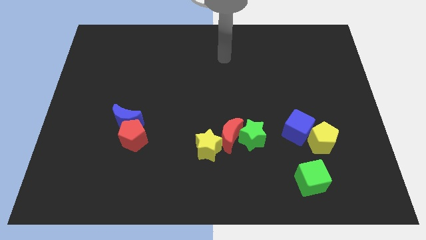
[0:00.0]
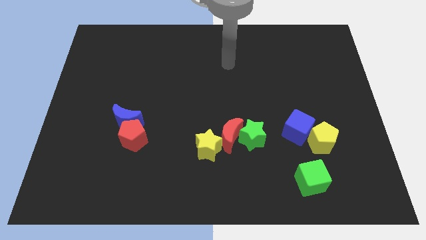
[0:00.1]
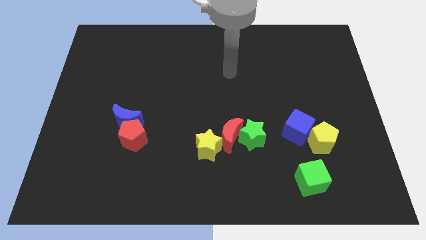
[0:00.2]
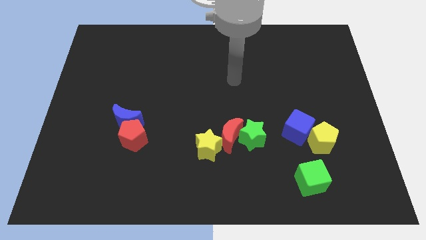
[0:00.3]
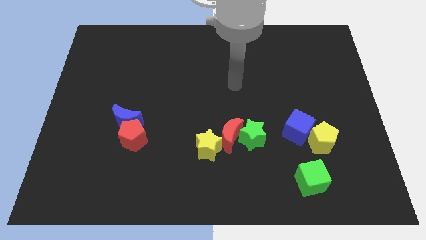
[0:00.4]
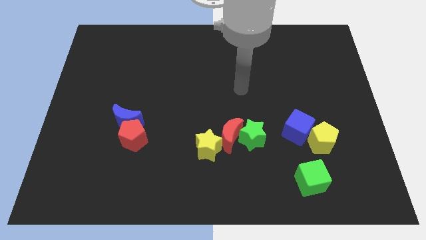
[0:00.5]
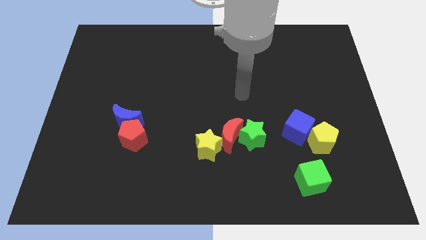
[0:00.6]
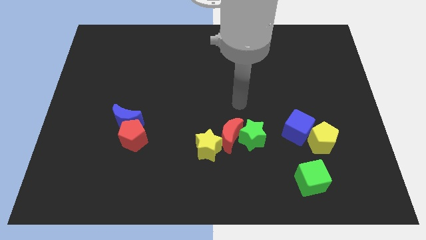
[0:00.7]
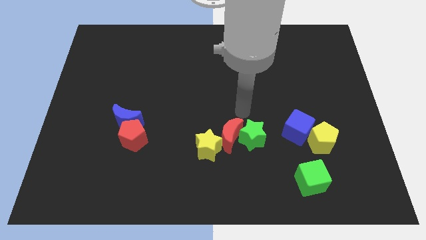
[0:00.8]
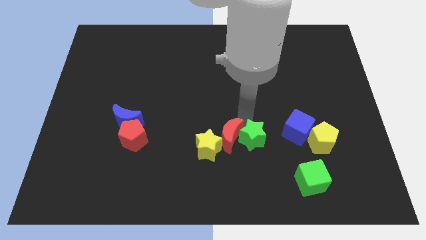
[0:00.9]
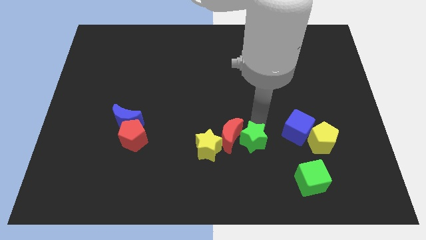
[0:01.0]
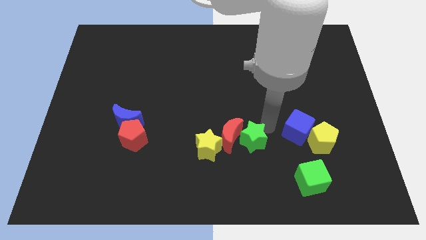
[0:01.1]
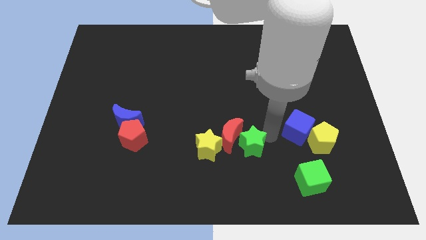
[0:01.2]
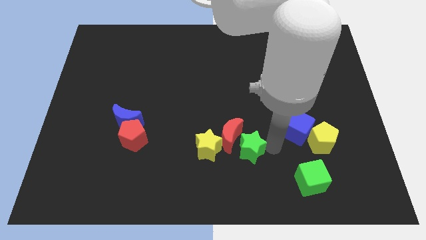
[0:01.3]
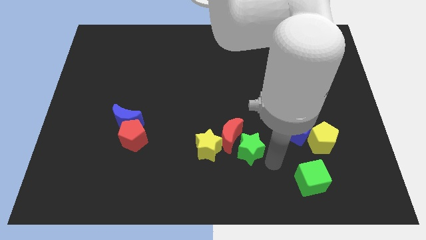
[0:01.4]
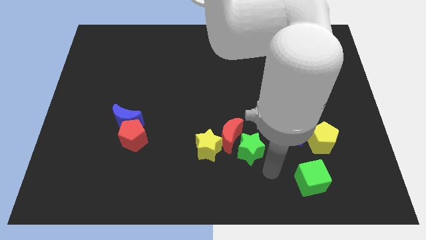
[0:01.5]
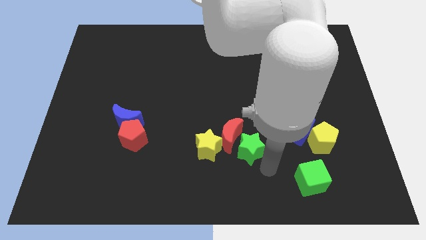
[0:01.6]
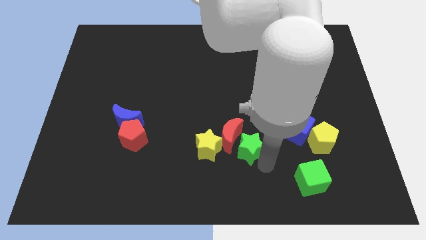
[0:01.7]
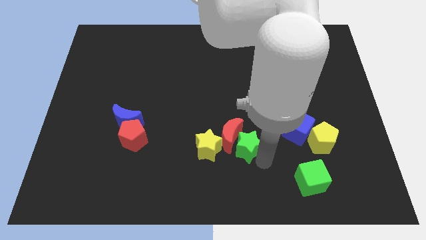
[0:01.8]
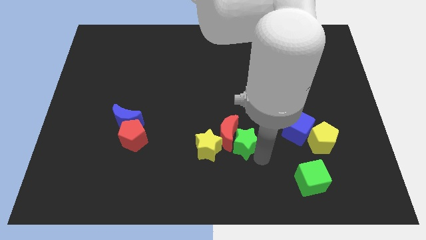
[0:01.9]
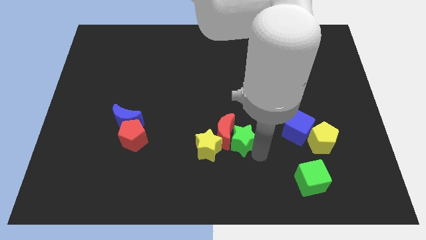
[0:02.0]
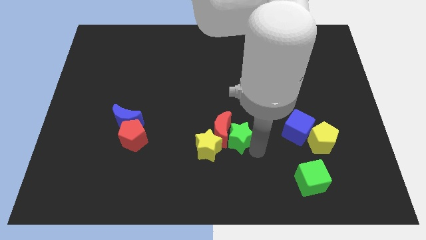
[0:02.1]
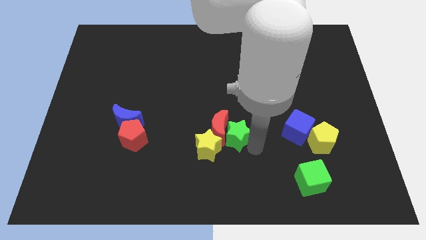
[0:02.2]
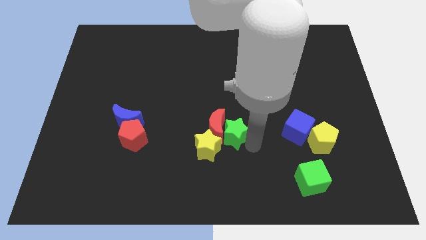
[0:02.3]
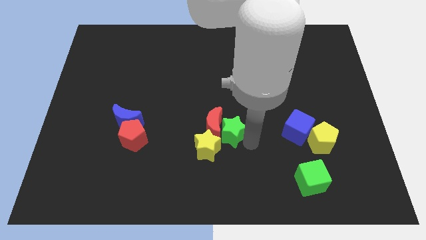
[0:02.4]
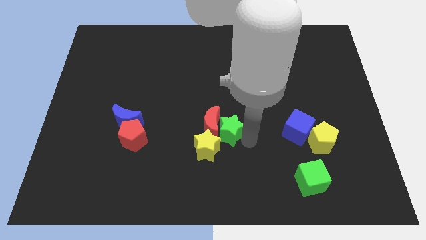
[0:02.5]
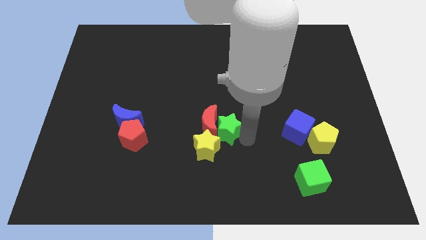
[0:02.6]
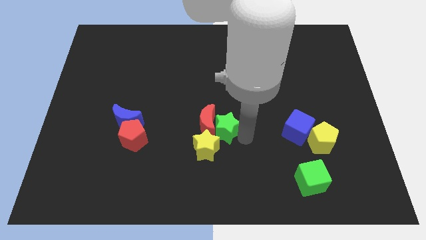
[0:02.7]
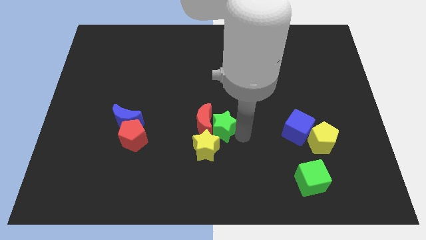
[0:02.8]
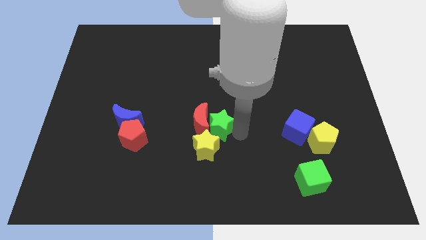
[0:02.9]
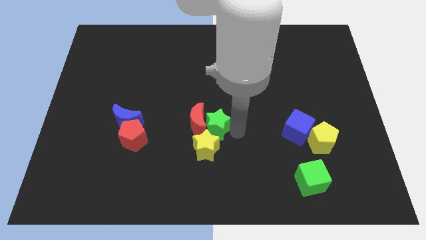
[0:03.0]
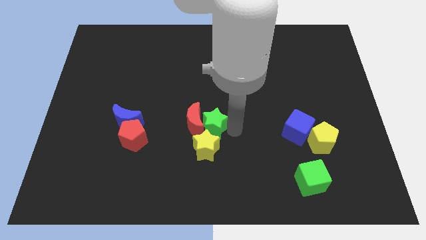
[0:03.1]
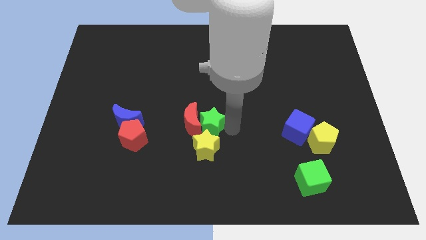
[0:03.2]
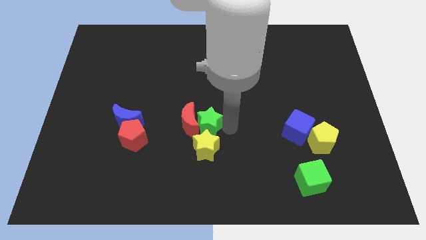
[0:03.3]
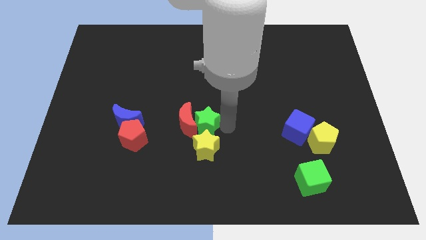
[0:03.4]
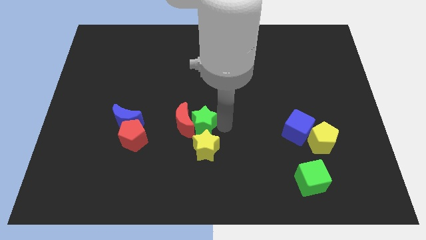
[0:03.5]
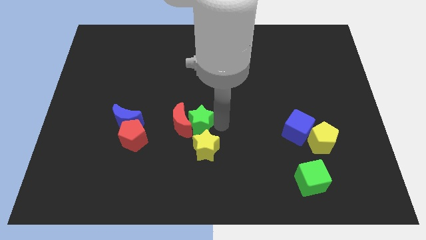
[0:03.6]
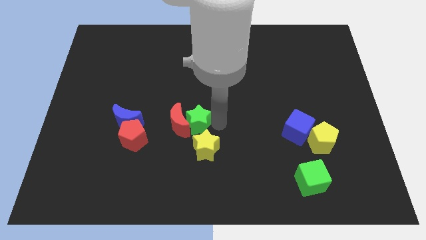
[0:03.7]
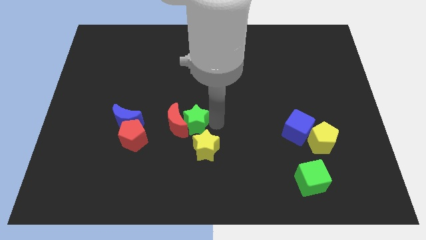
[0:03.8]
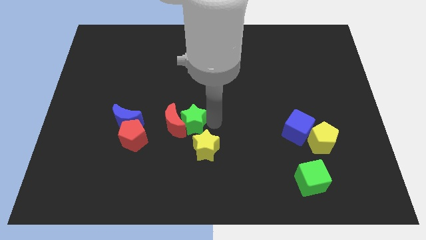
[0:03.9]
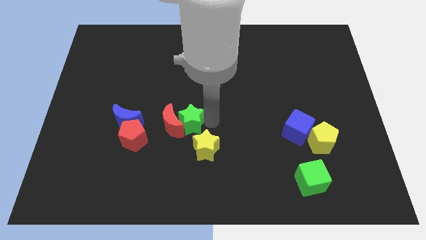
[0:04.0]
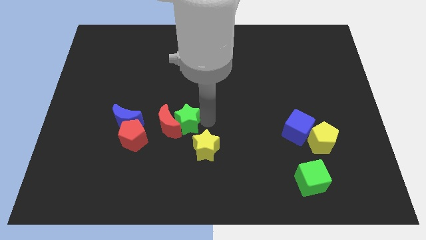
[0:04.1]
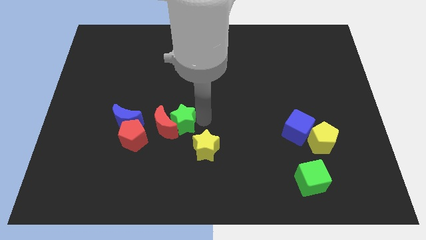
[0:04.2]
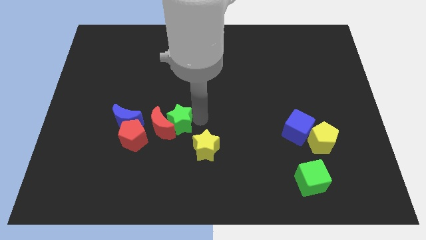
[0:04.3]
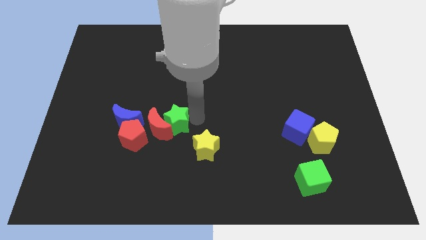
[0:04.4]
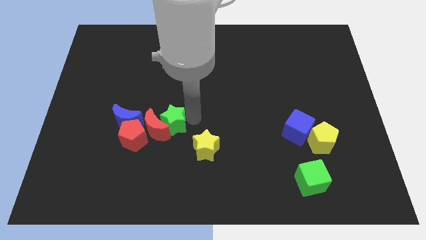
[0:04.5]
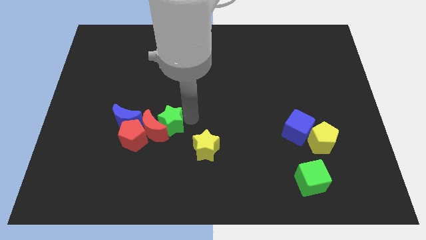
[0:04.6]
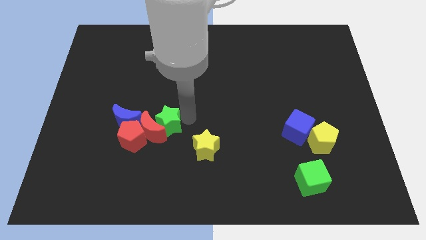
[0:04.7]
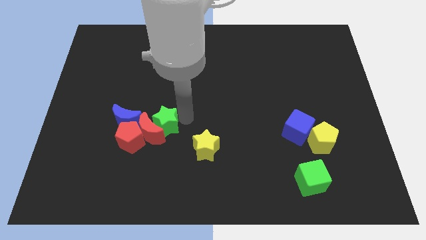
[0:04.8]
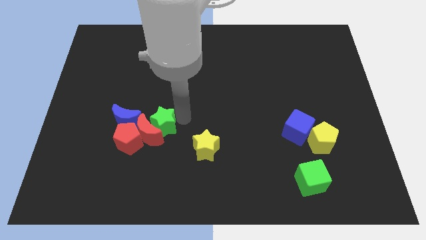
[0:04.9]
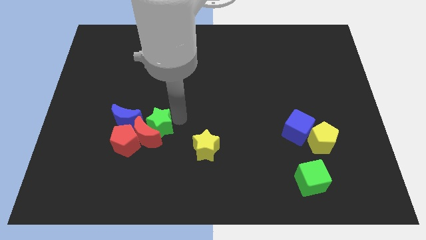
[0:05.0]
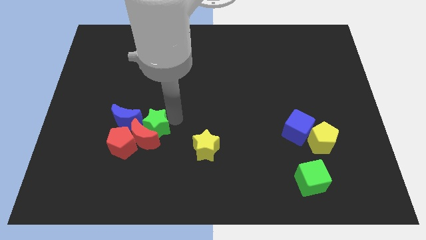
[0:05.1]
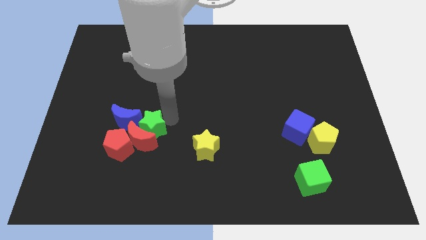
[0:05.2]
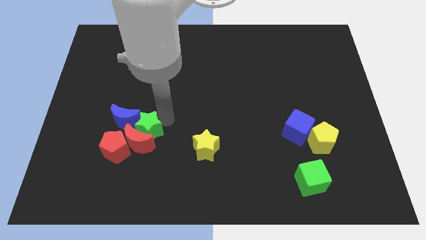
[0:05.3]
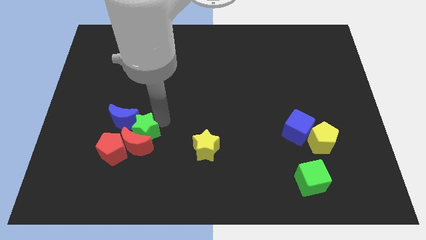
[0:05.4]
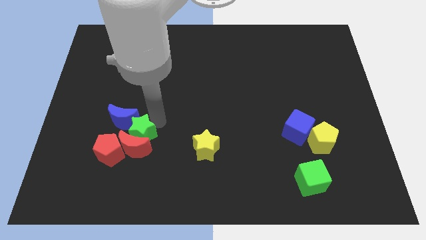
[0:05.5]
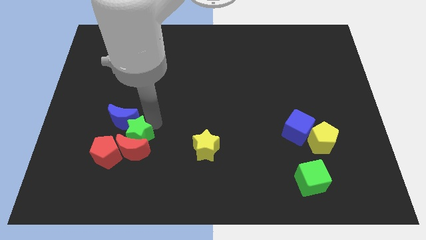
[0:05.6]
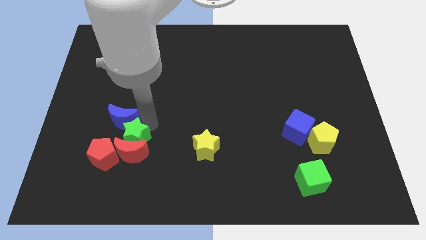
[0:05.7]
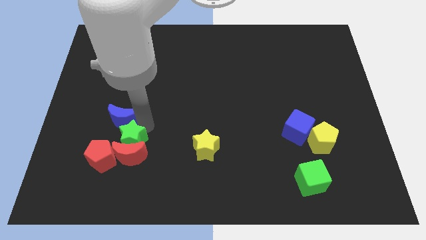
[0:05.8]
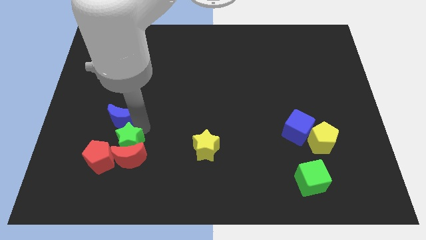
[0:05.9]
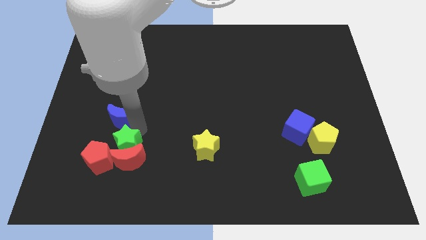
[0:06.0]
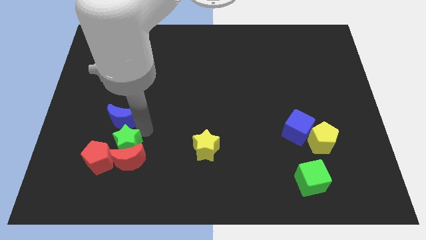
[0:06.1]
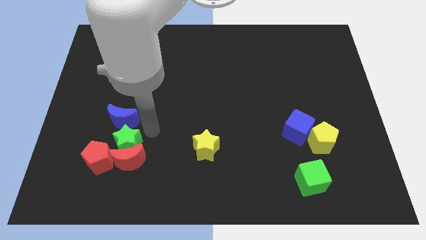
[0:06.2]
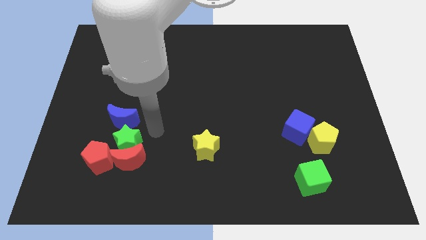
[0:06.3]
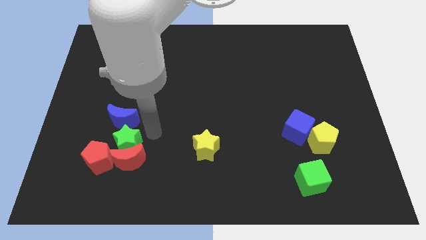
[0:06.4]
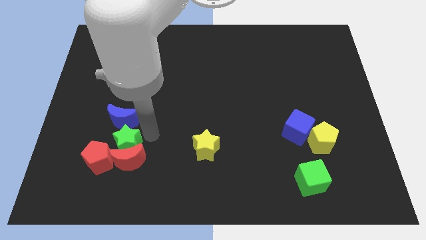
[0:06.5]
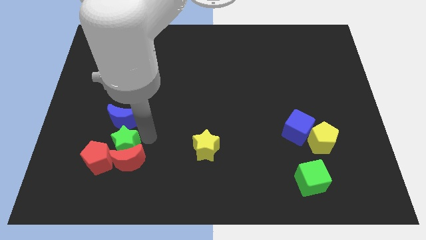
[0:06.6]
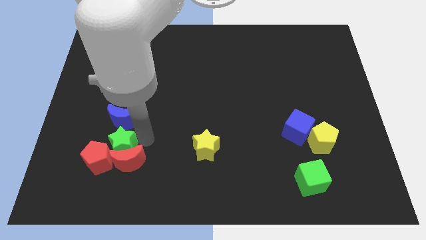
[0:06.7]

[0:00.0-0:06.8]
slide the green star next to the red pentagon
